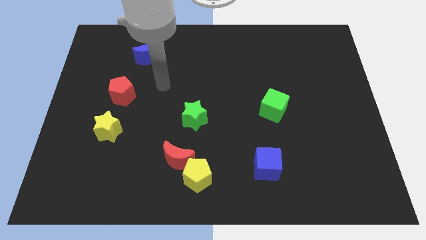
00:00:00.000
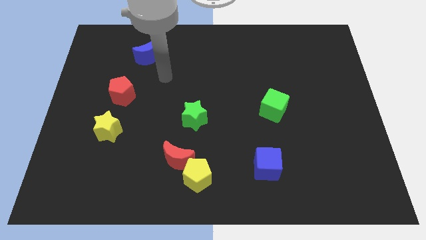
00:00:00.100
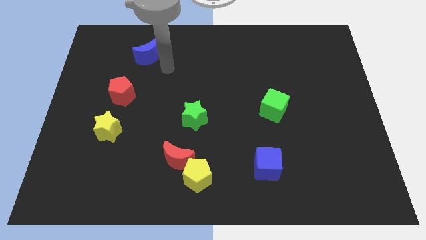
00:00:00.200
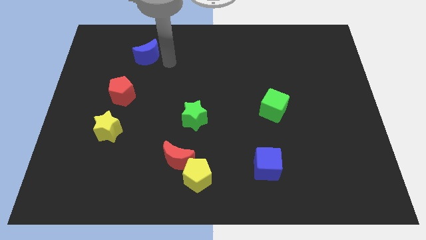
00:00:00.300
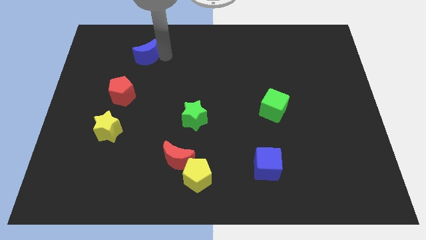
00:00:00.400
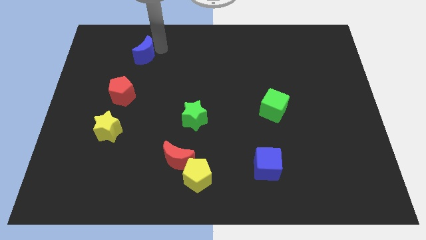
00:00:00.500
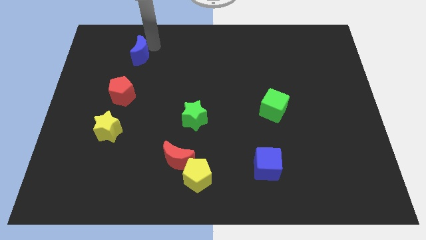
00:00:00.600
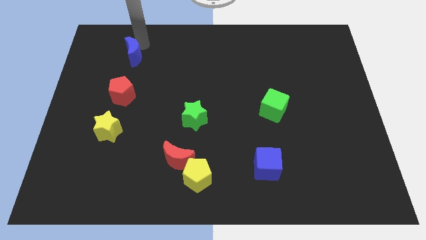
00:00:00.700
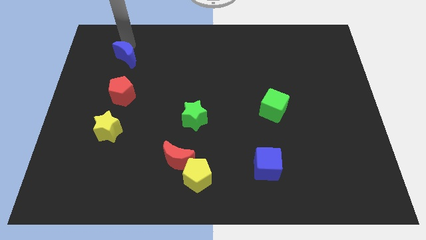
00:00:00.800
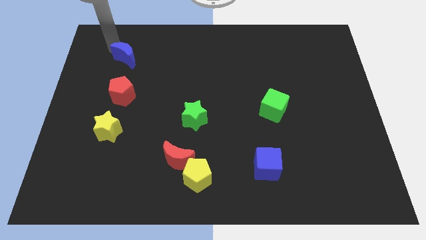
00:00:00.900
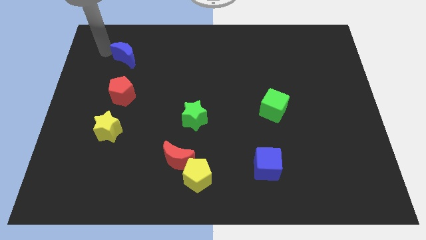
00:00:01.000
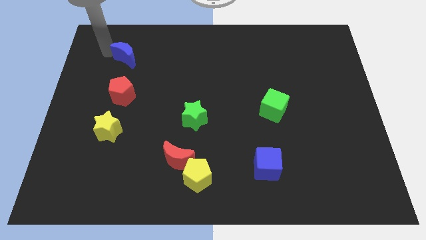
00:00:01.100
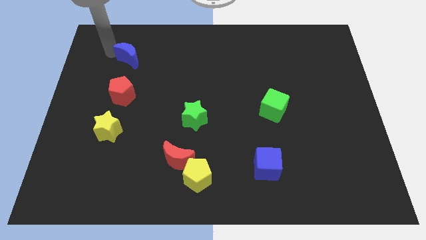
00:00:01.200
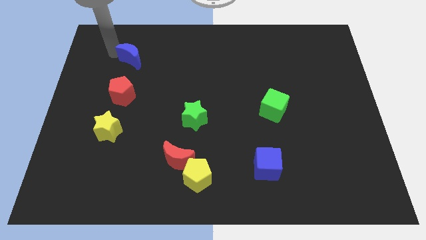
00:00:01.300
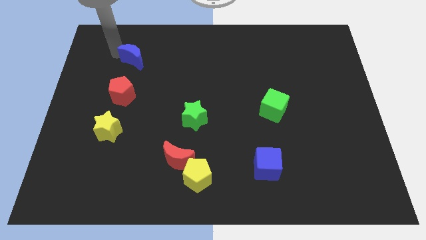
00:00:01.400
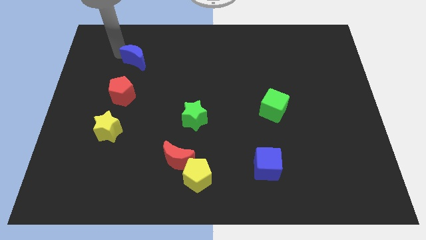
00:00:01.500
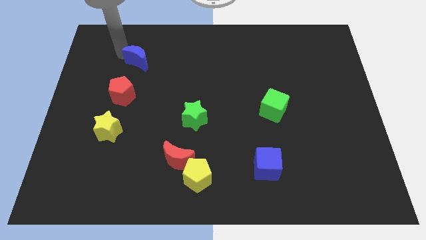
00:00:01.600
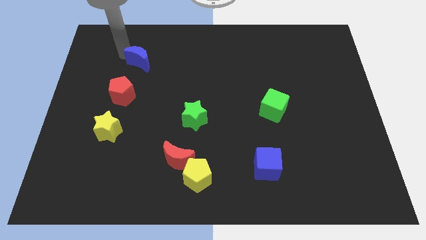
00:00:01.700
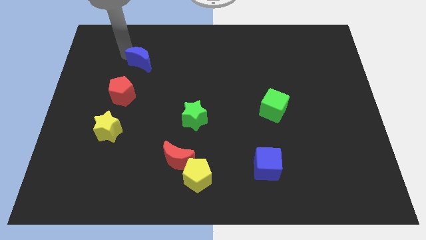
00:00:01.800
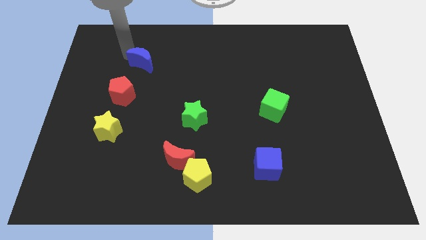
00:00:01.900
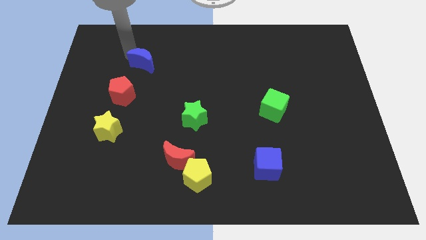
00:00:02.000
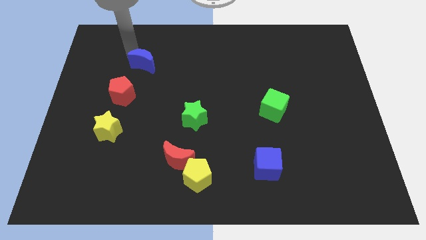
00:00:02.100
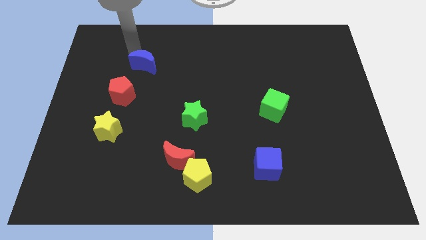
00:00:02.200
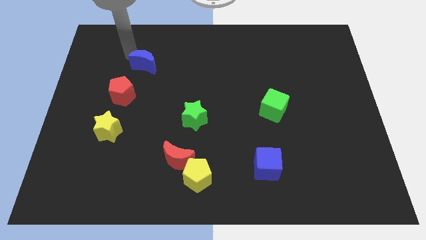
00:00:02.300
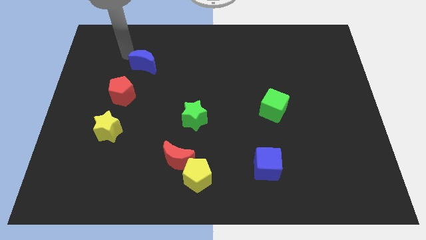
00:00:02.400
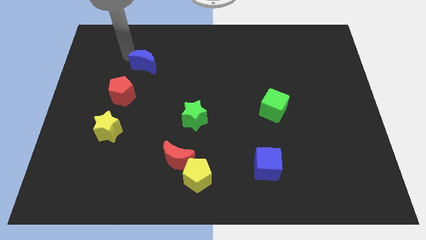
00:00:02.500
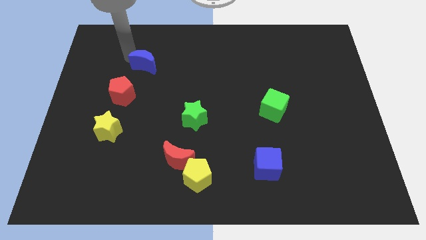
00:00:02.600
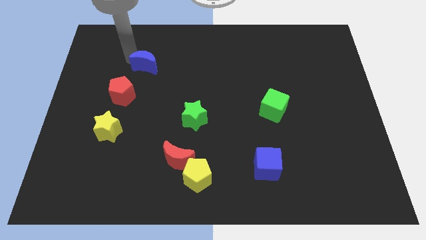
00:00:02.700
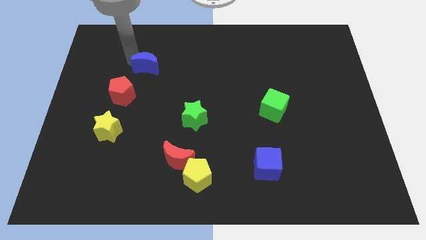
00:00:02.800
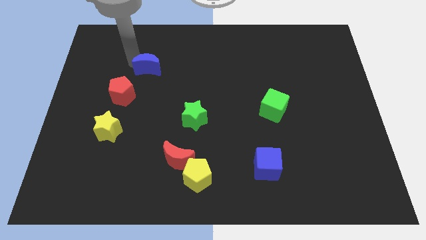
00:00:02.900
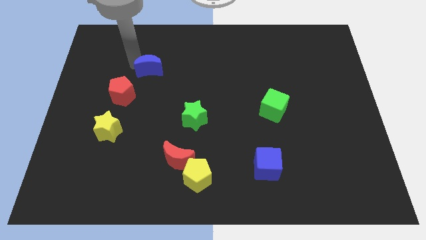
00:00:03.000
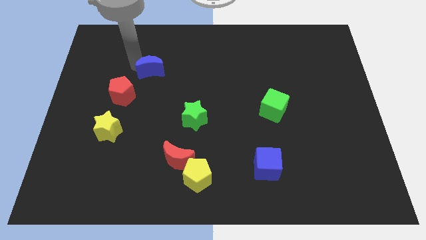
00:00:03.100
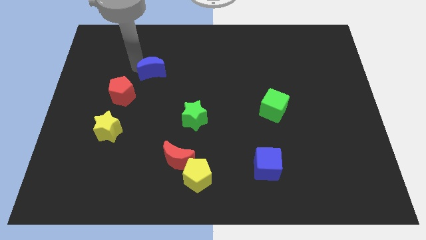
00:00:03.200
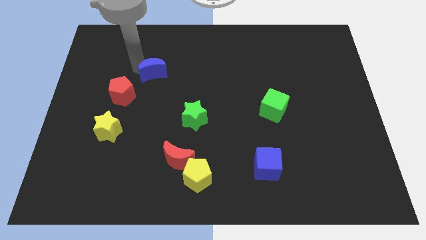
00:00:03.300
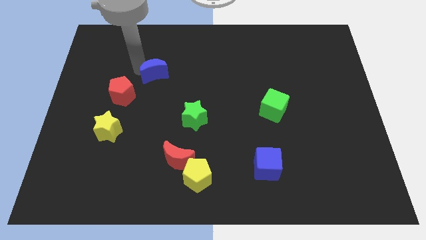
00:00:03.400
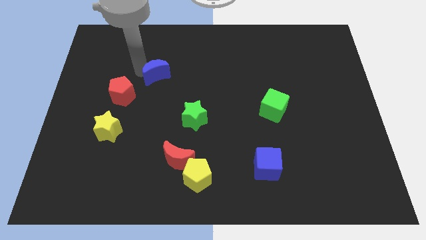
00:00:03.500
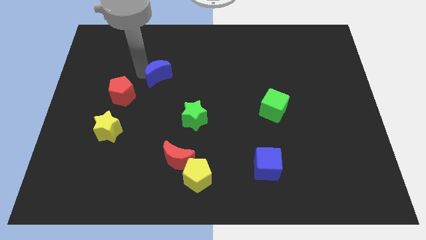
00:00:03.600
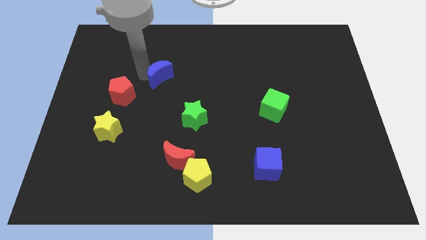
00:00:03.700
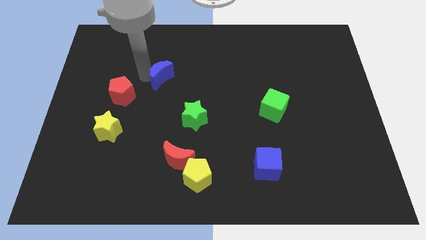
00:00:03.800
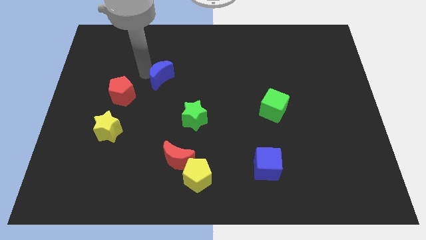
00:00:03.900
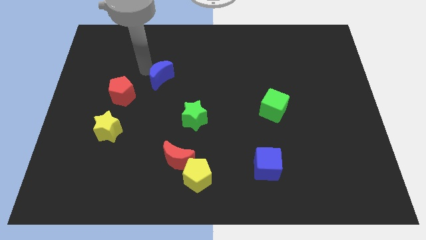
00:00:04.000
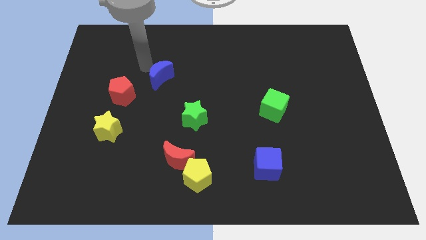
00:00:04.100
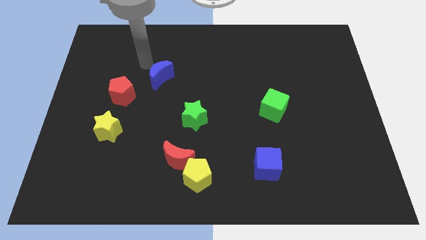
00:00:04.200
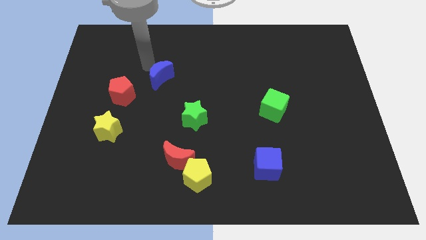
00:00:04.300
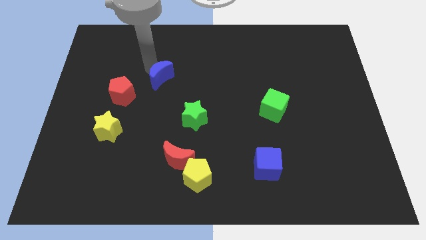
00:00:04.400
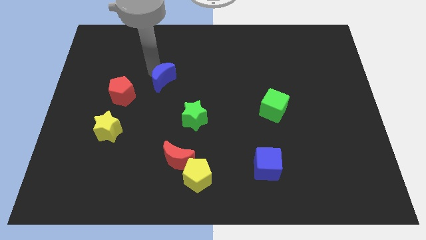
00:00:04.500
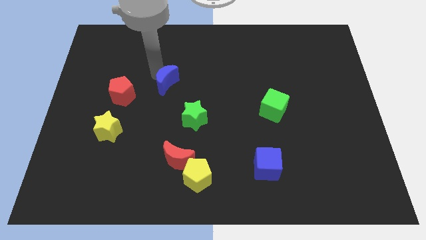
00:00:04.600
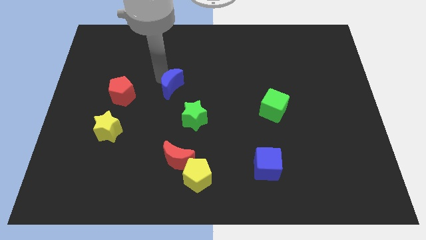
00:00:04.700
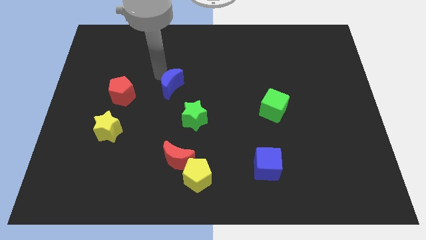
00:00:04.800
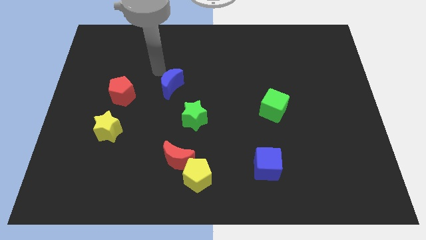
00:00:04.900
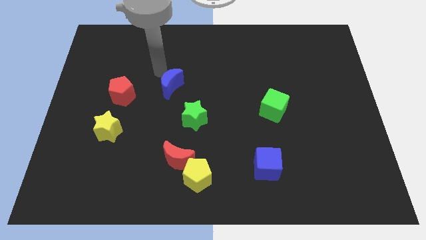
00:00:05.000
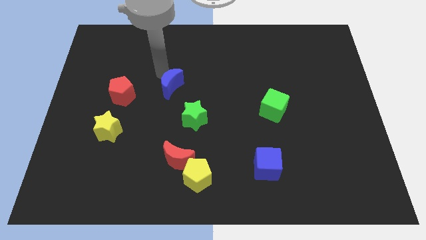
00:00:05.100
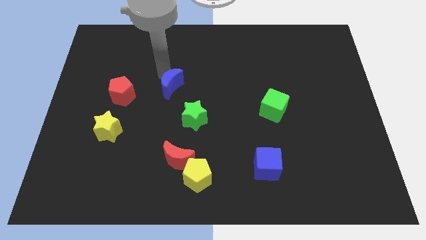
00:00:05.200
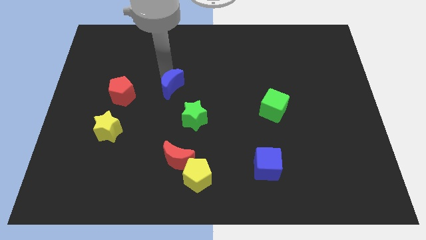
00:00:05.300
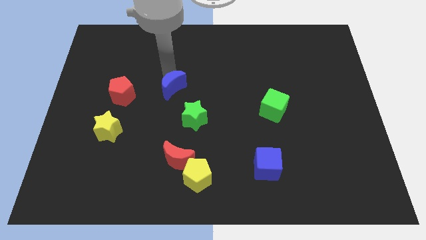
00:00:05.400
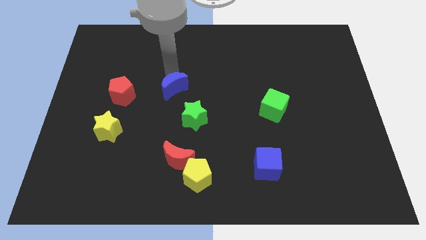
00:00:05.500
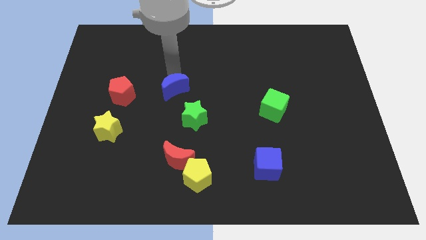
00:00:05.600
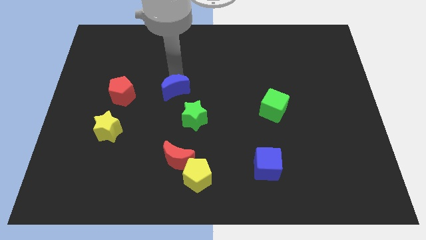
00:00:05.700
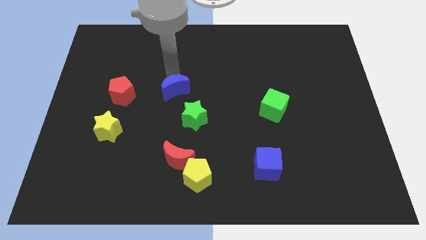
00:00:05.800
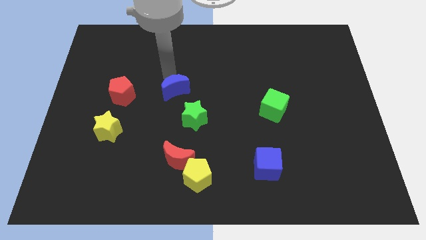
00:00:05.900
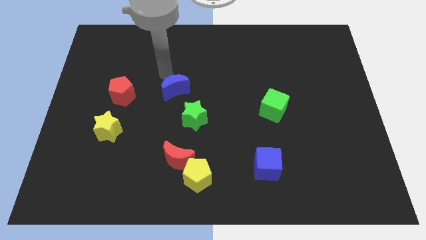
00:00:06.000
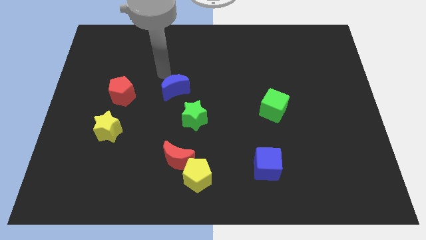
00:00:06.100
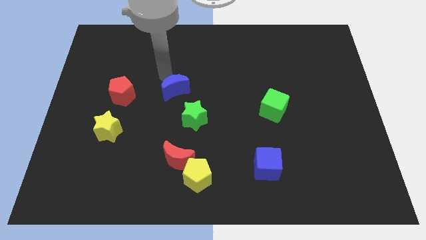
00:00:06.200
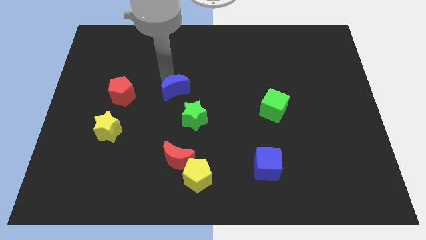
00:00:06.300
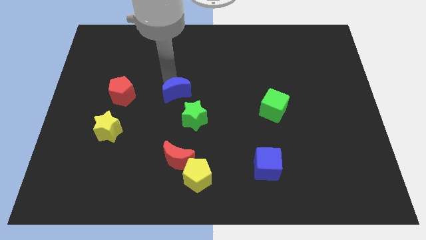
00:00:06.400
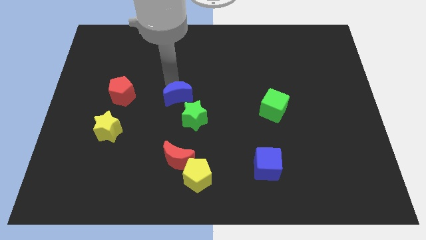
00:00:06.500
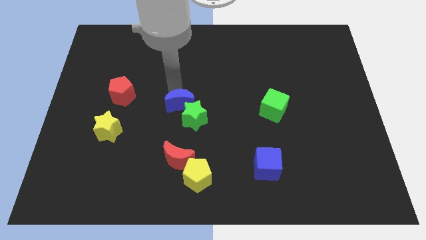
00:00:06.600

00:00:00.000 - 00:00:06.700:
slide the blue moon towards the green star

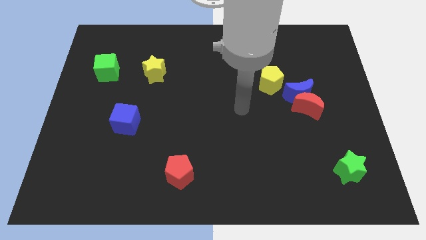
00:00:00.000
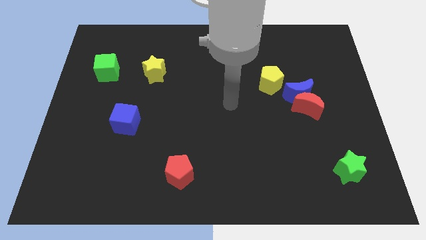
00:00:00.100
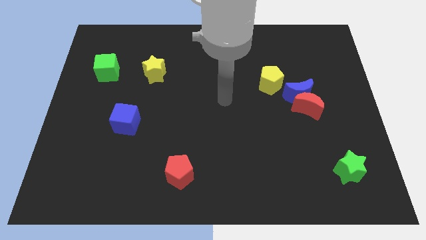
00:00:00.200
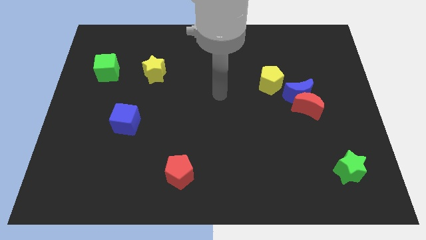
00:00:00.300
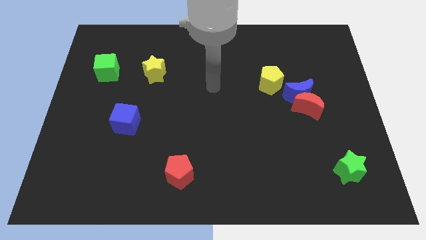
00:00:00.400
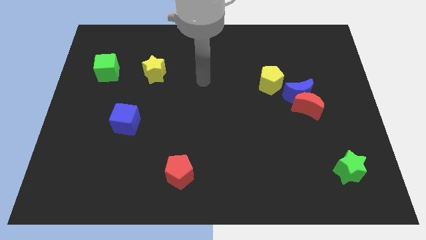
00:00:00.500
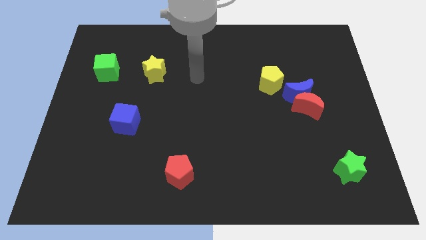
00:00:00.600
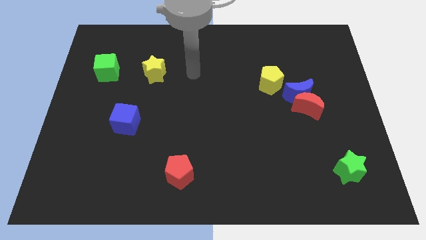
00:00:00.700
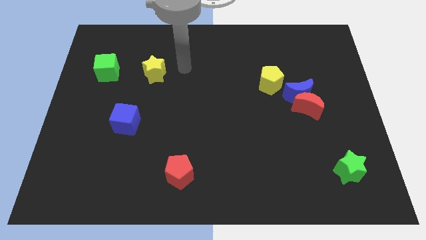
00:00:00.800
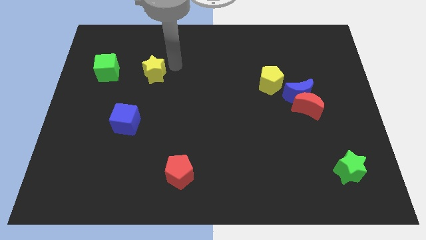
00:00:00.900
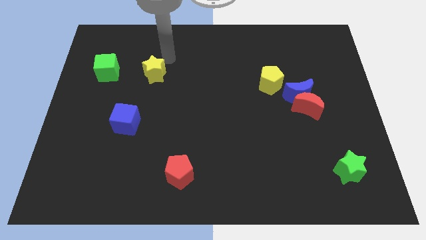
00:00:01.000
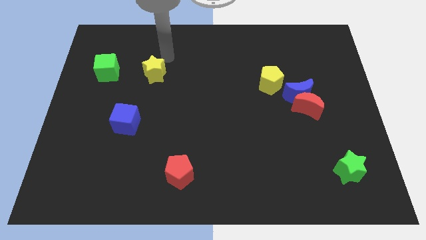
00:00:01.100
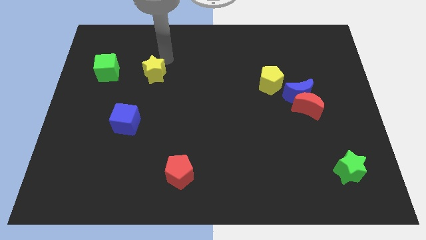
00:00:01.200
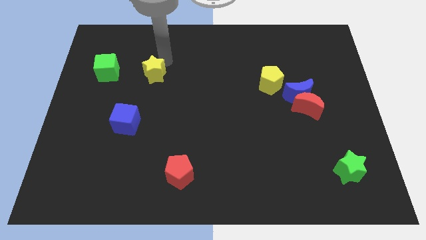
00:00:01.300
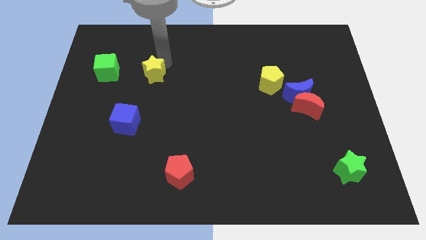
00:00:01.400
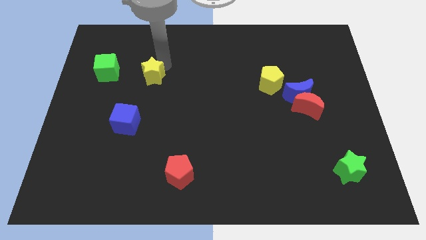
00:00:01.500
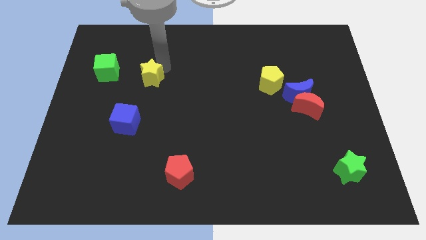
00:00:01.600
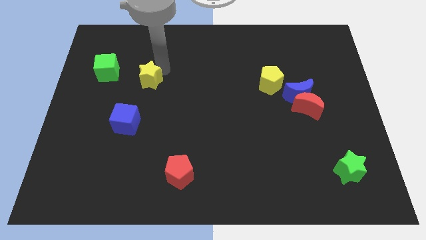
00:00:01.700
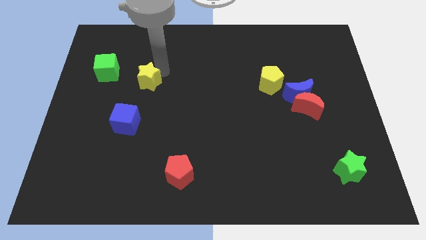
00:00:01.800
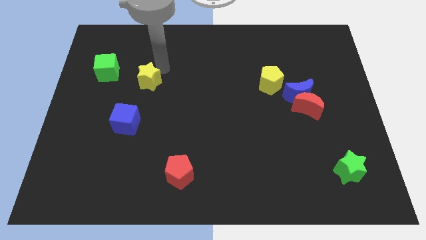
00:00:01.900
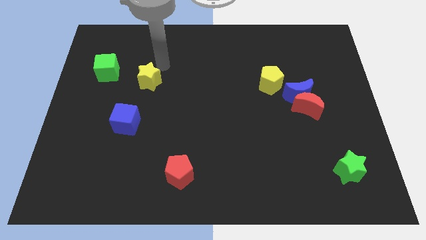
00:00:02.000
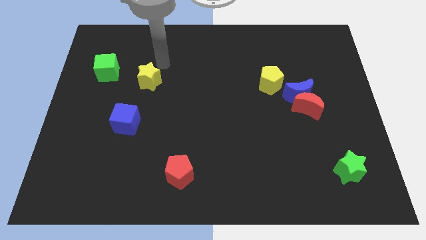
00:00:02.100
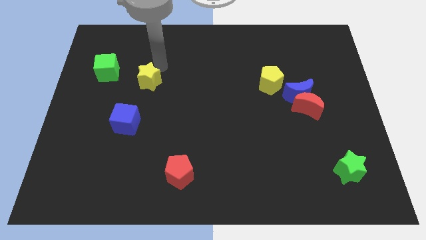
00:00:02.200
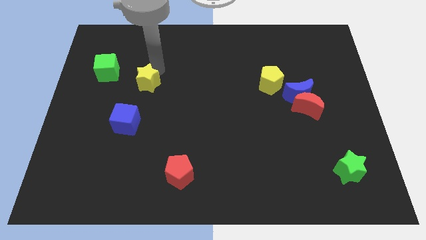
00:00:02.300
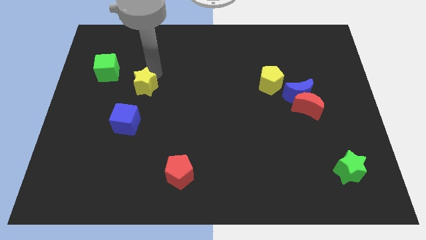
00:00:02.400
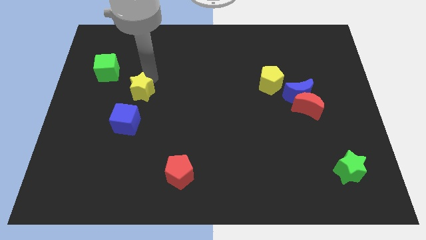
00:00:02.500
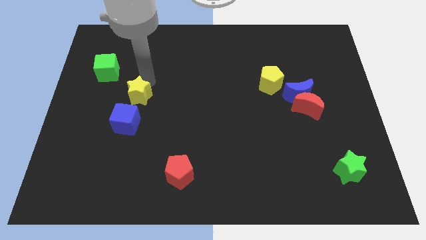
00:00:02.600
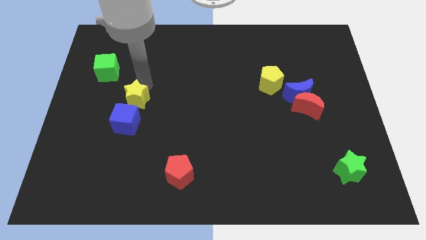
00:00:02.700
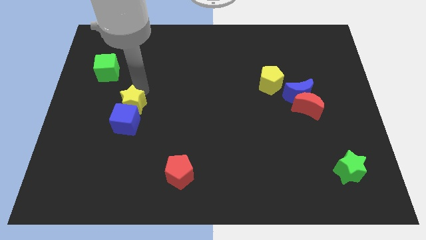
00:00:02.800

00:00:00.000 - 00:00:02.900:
move the yellow star to the blue cube
